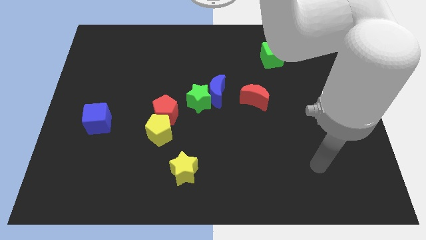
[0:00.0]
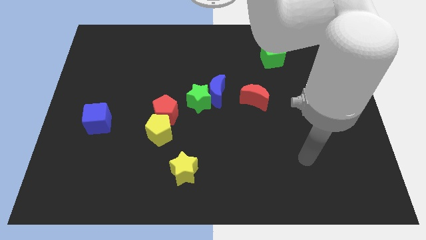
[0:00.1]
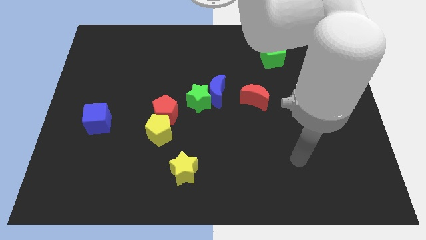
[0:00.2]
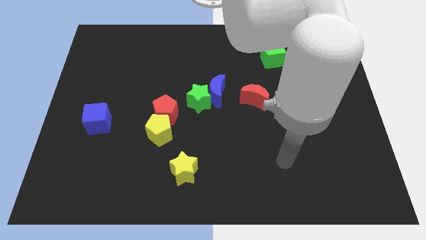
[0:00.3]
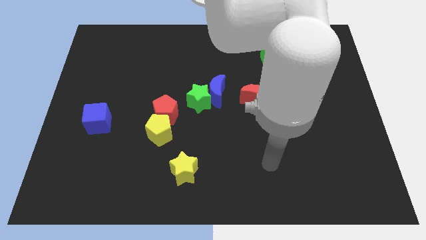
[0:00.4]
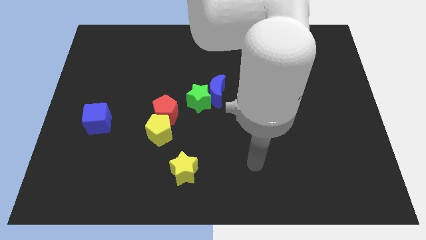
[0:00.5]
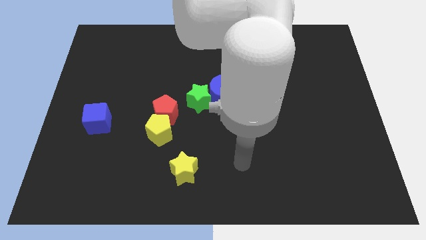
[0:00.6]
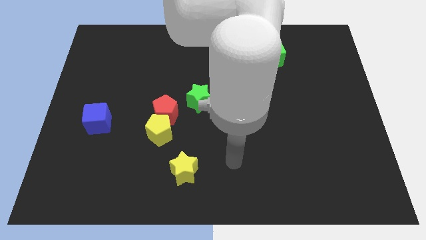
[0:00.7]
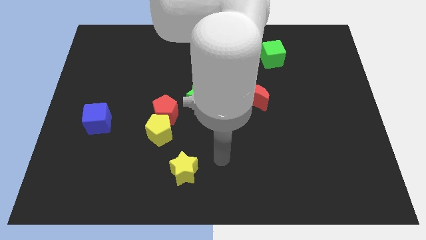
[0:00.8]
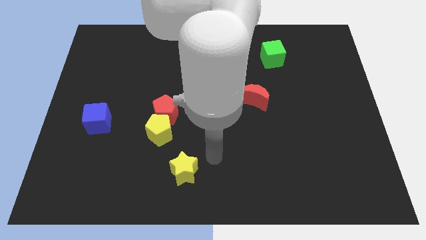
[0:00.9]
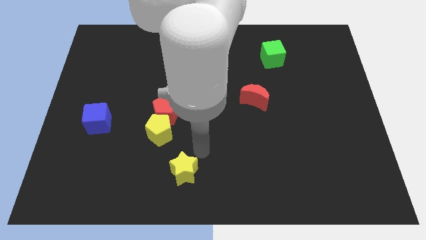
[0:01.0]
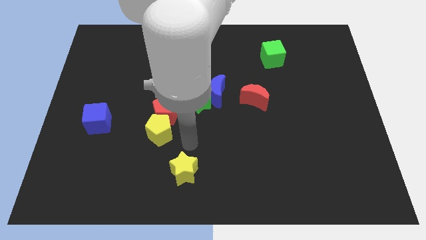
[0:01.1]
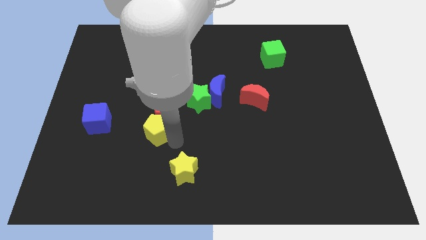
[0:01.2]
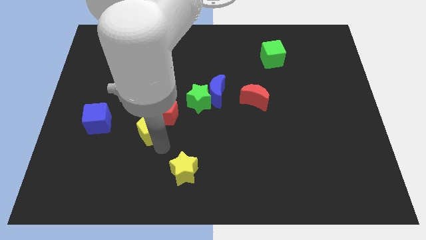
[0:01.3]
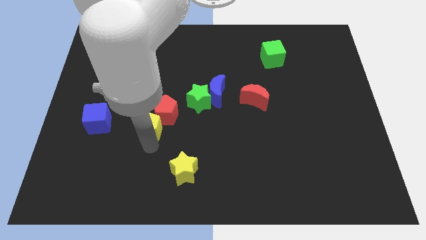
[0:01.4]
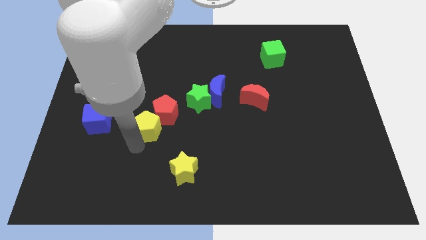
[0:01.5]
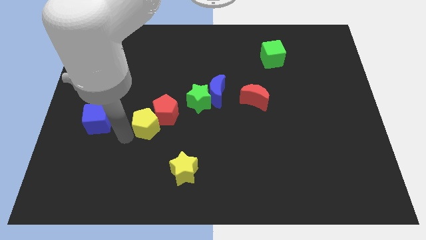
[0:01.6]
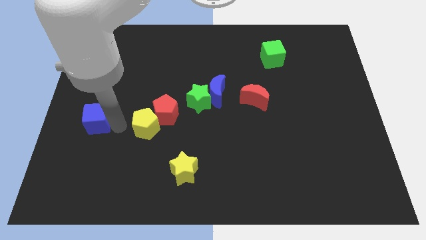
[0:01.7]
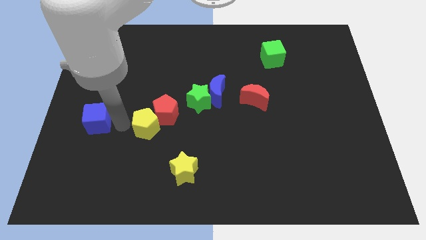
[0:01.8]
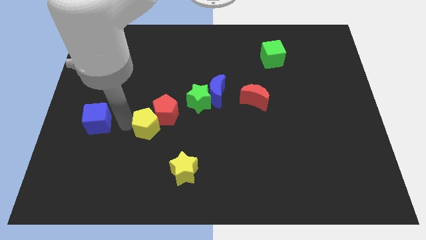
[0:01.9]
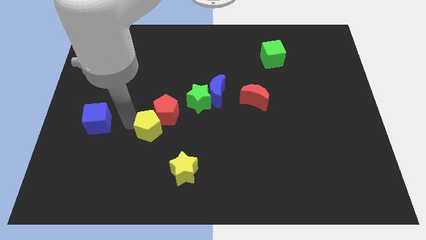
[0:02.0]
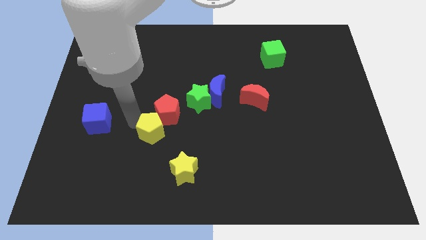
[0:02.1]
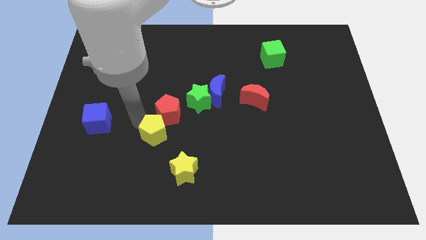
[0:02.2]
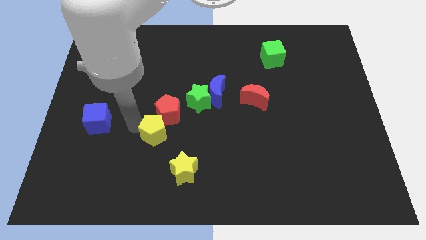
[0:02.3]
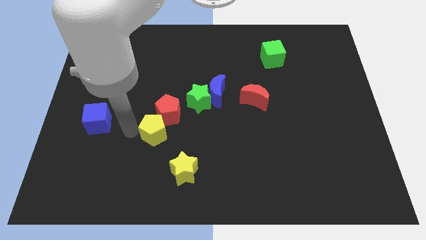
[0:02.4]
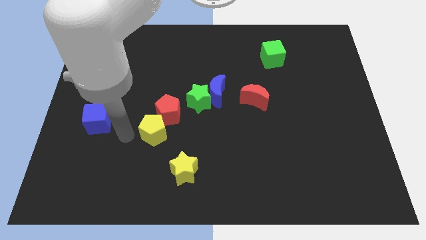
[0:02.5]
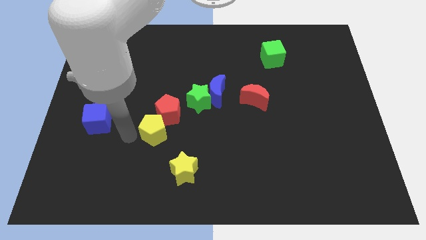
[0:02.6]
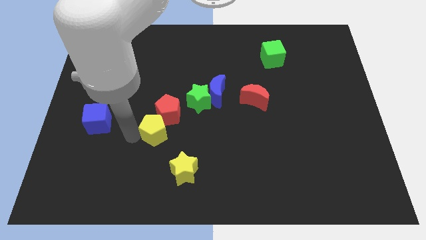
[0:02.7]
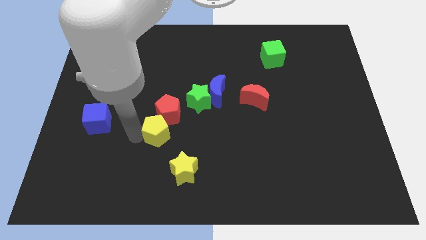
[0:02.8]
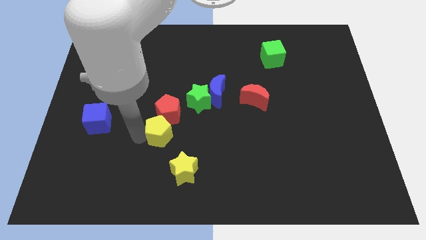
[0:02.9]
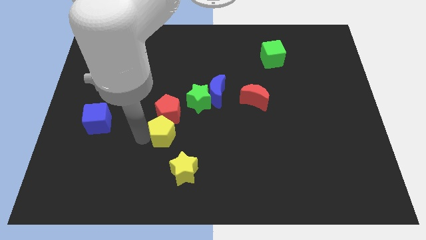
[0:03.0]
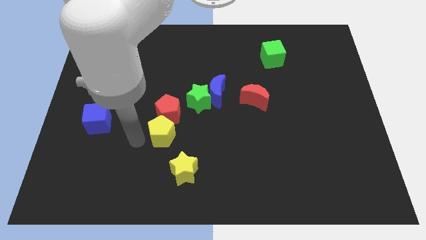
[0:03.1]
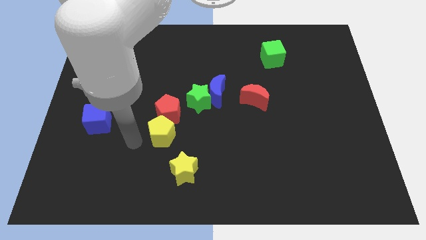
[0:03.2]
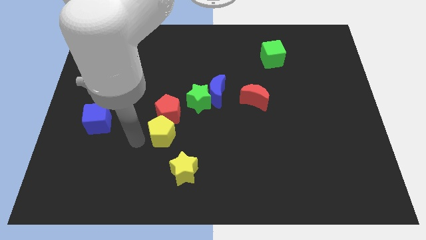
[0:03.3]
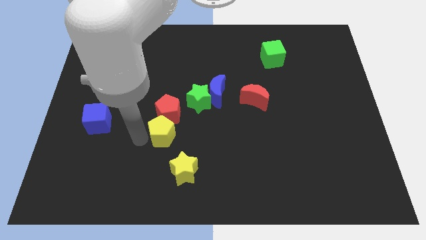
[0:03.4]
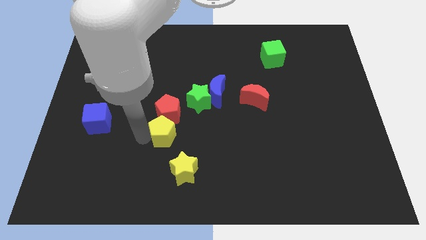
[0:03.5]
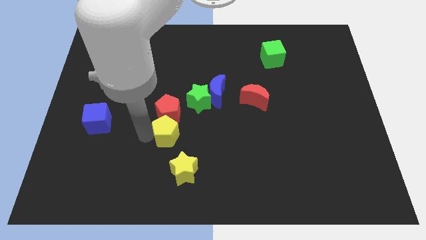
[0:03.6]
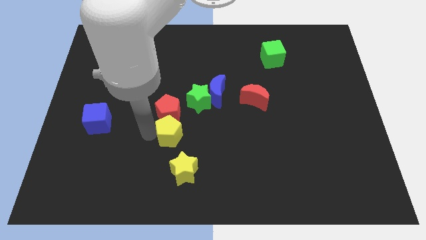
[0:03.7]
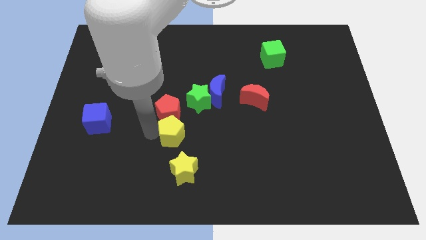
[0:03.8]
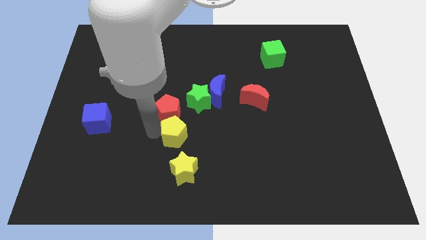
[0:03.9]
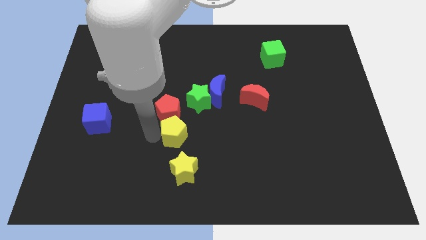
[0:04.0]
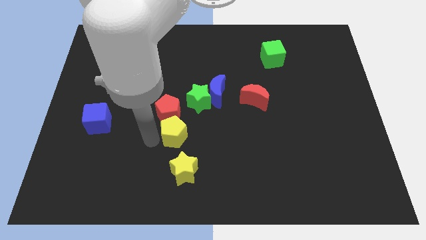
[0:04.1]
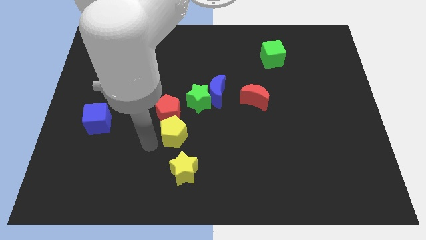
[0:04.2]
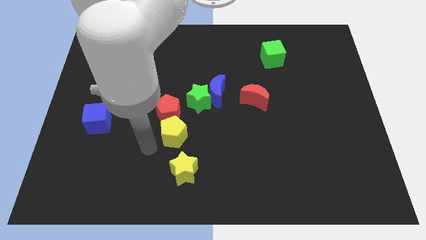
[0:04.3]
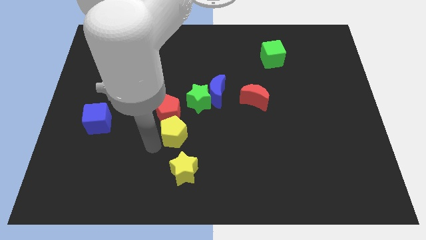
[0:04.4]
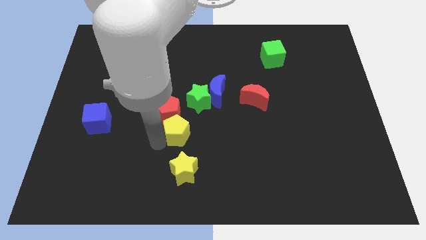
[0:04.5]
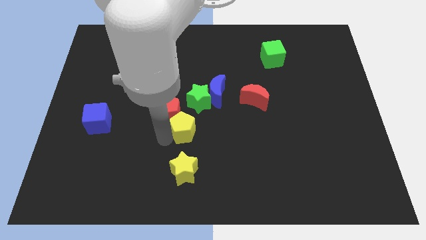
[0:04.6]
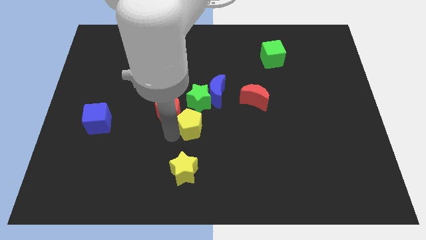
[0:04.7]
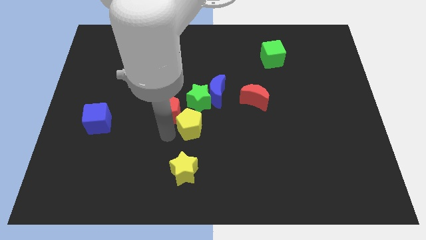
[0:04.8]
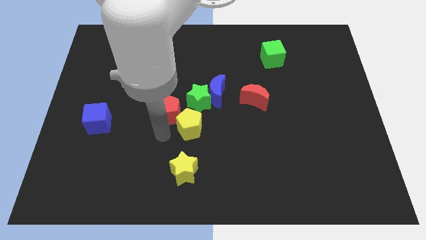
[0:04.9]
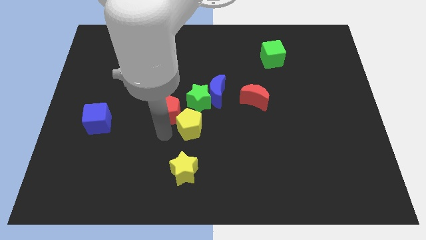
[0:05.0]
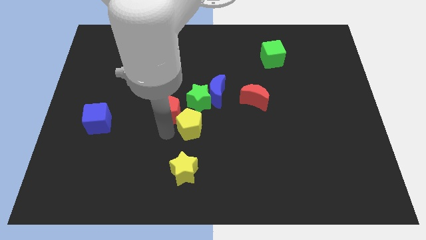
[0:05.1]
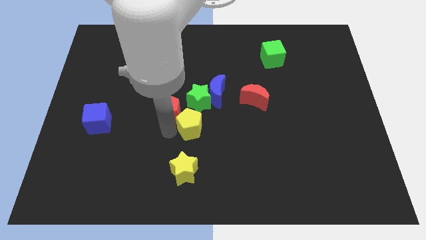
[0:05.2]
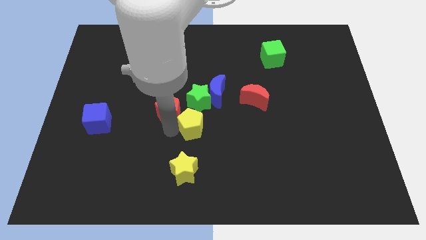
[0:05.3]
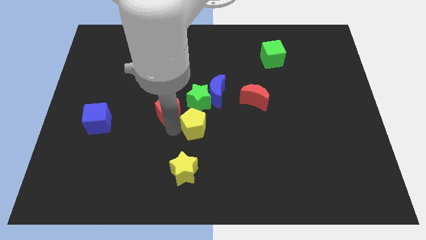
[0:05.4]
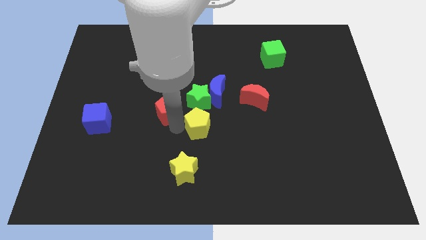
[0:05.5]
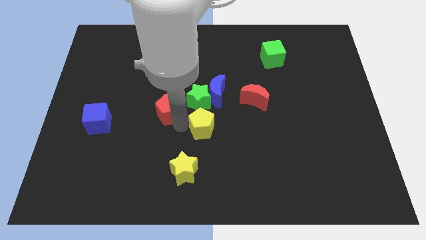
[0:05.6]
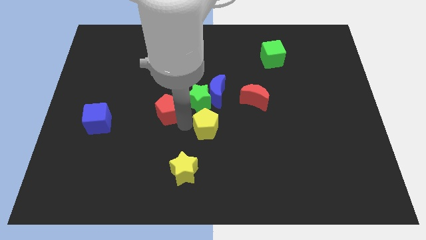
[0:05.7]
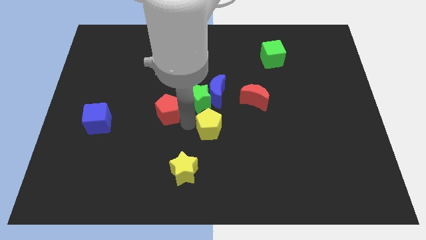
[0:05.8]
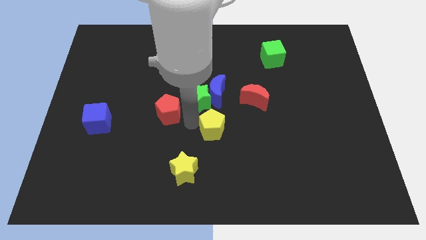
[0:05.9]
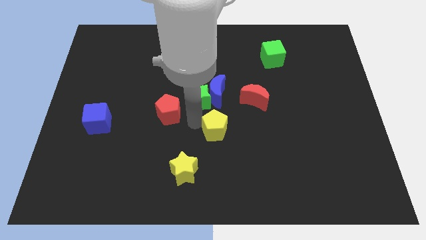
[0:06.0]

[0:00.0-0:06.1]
slide the yellow pentagon to the bottom left of the red moon

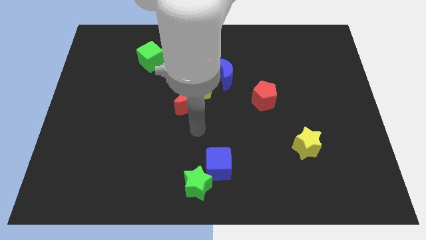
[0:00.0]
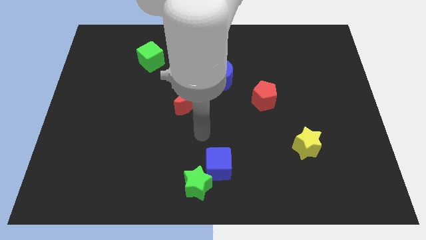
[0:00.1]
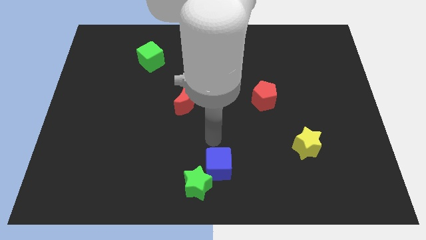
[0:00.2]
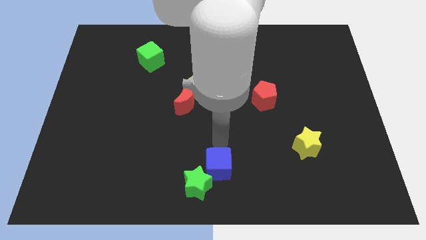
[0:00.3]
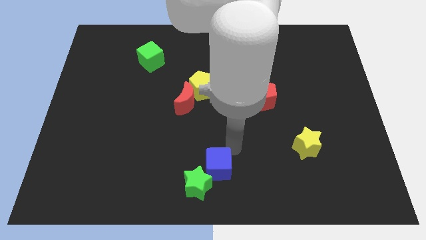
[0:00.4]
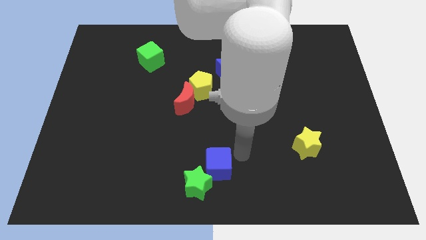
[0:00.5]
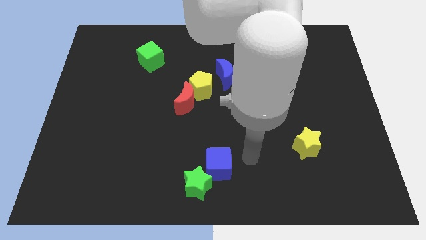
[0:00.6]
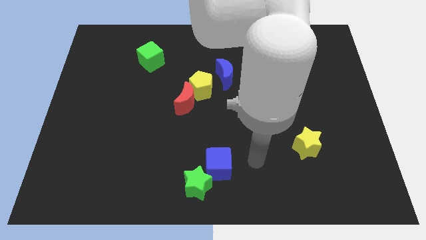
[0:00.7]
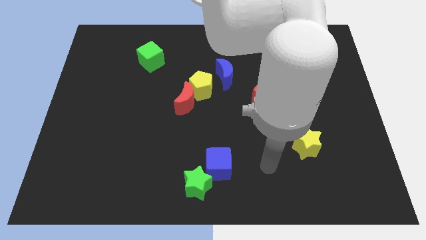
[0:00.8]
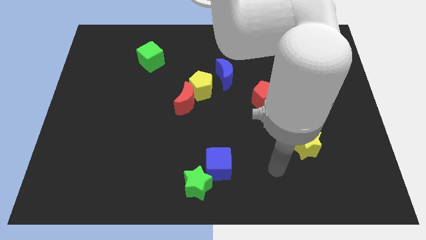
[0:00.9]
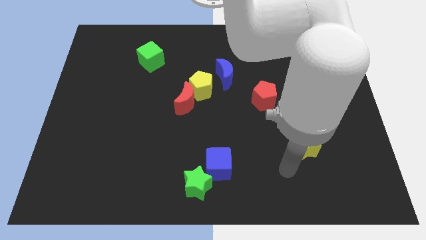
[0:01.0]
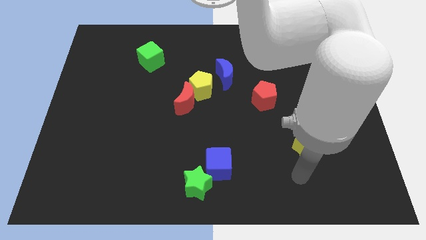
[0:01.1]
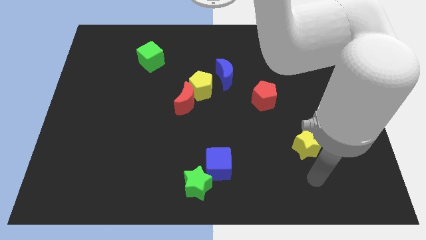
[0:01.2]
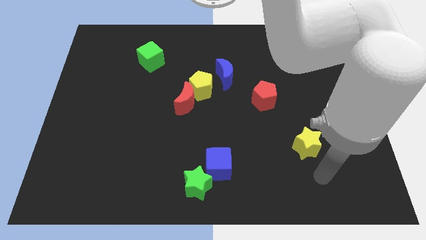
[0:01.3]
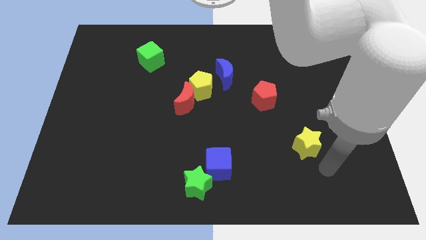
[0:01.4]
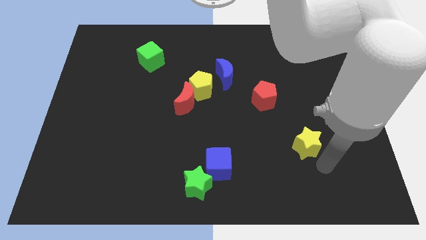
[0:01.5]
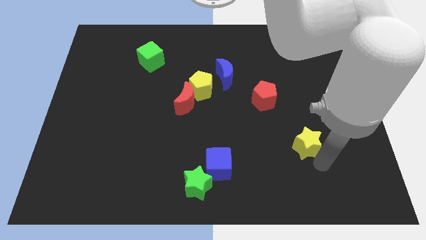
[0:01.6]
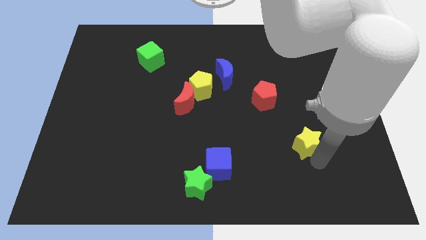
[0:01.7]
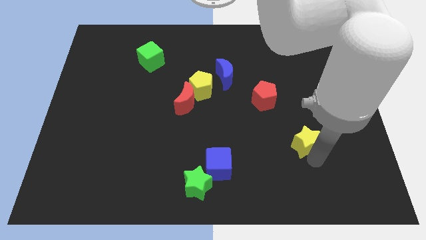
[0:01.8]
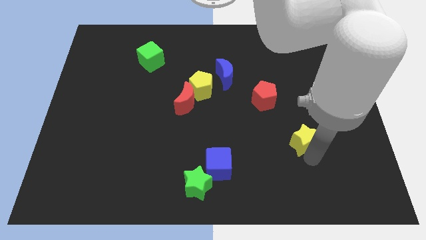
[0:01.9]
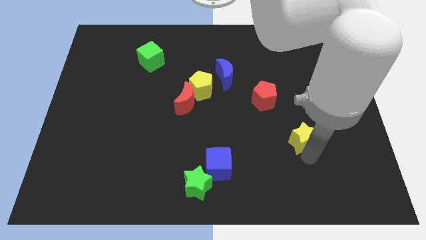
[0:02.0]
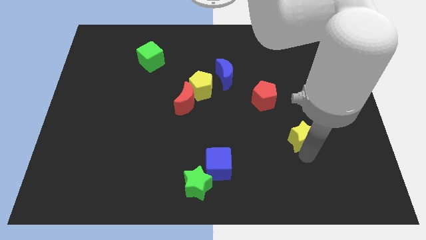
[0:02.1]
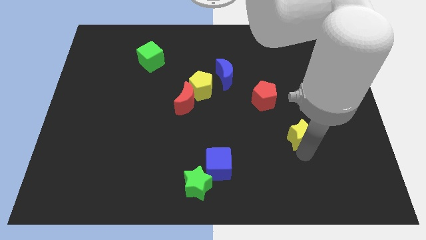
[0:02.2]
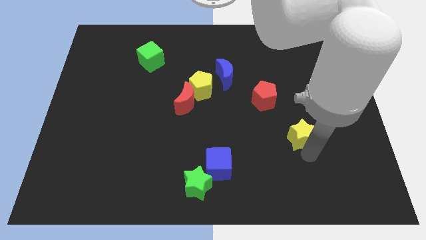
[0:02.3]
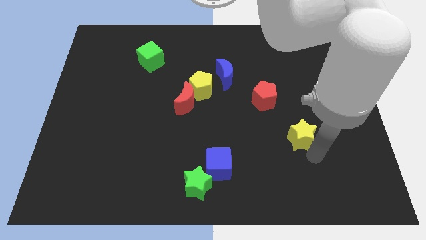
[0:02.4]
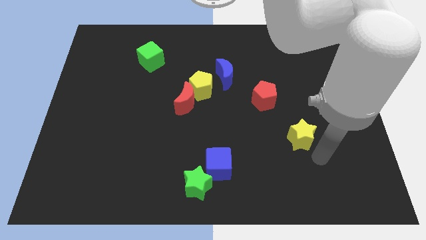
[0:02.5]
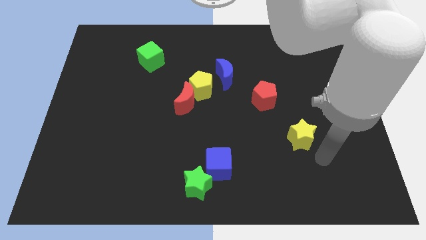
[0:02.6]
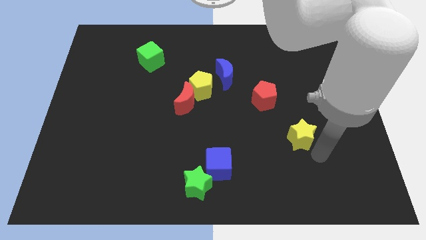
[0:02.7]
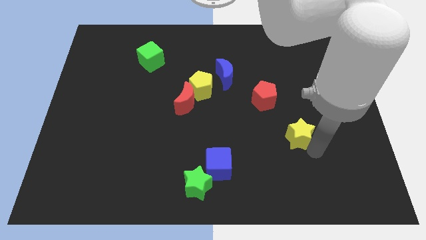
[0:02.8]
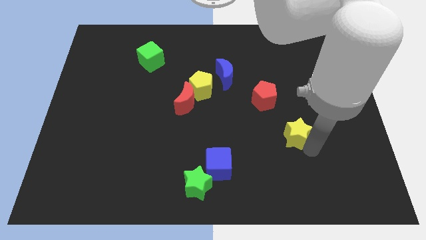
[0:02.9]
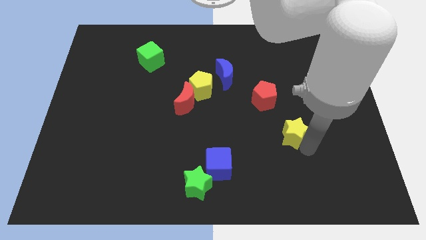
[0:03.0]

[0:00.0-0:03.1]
put the yellow star diagonally down and to the right of the red pentagon
